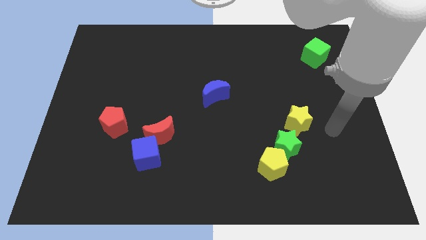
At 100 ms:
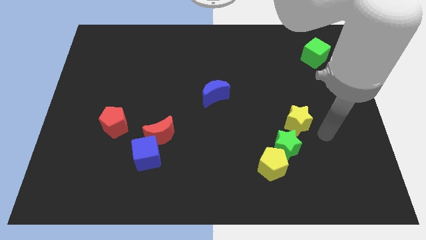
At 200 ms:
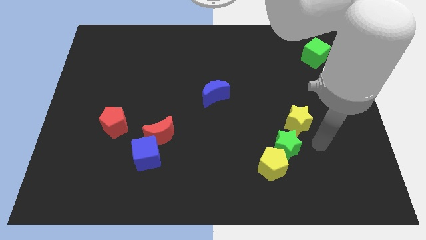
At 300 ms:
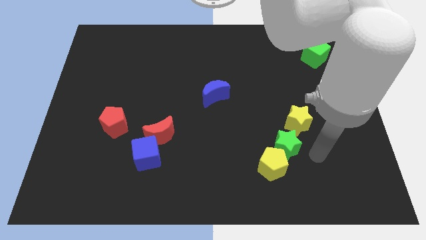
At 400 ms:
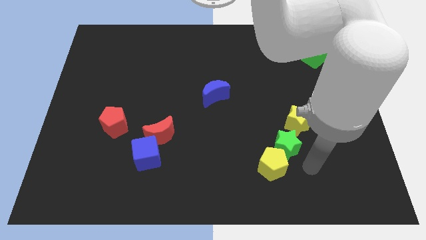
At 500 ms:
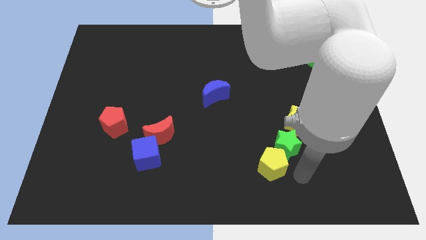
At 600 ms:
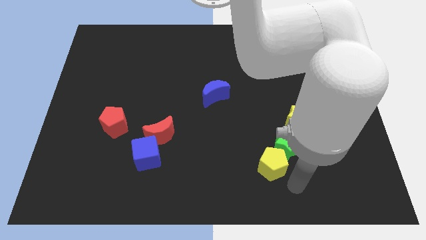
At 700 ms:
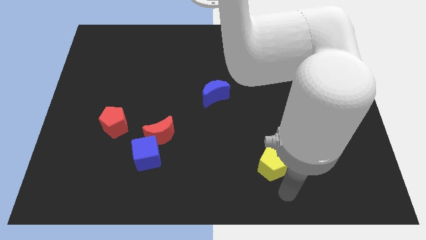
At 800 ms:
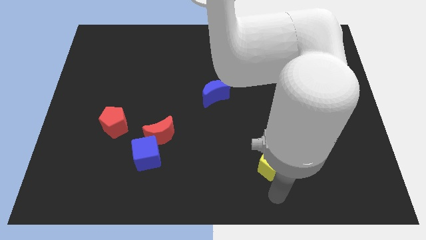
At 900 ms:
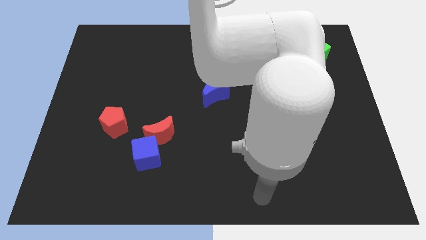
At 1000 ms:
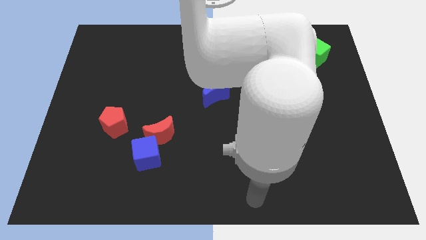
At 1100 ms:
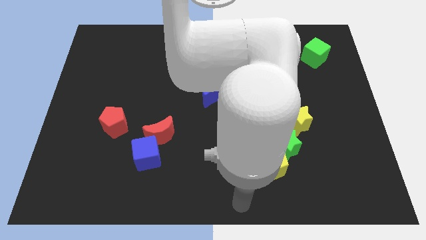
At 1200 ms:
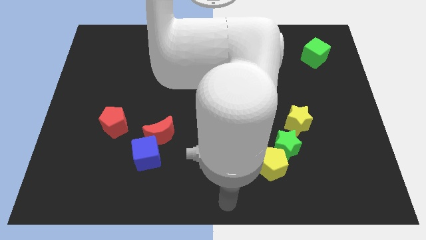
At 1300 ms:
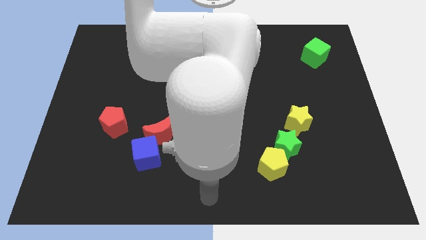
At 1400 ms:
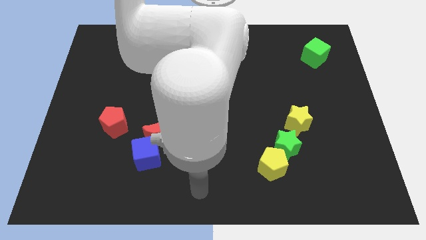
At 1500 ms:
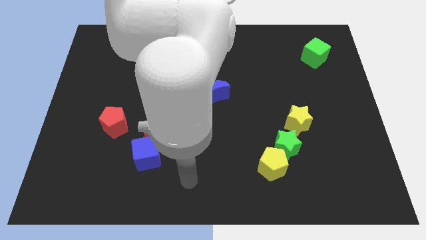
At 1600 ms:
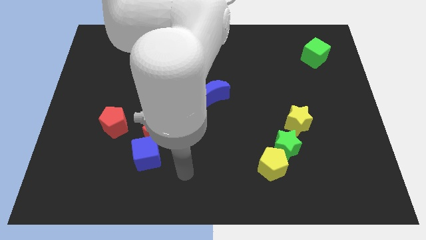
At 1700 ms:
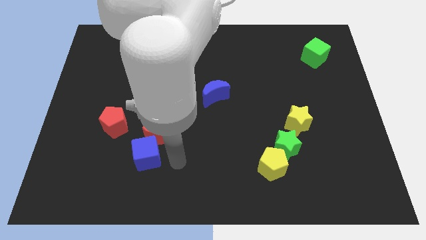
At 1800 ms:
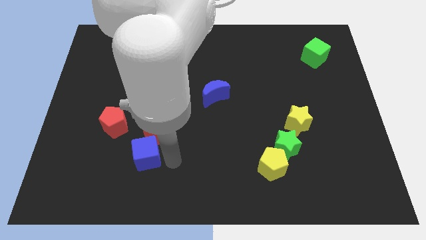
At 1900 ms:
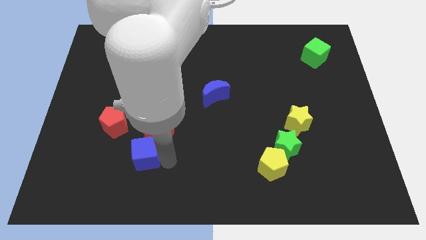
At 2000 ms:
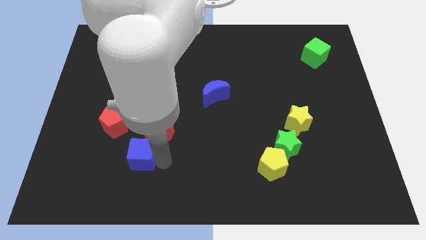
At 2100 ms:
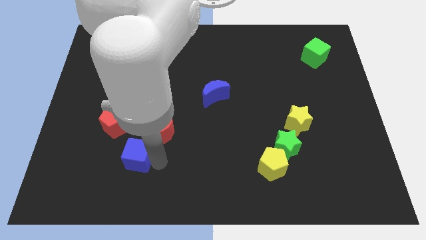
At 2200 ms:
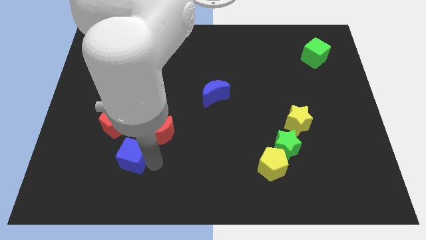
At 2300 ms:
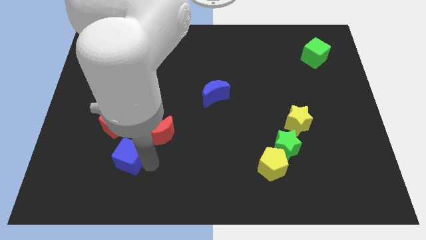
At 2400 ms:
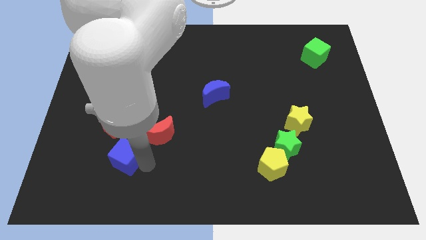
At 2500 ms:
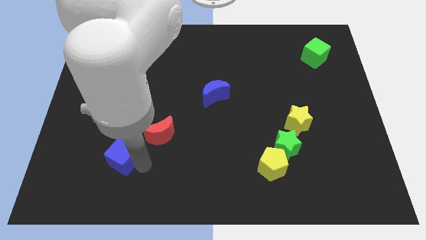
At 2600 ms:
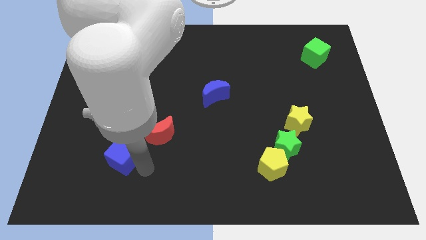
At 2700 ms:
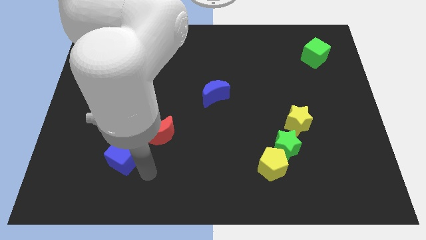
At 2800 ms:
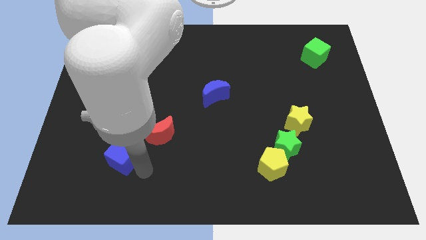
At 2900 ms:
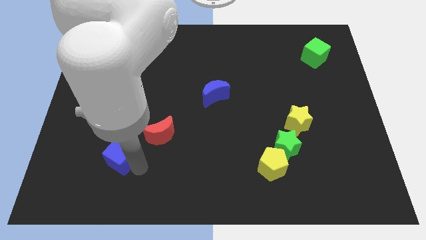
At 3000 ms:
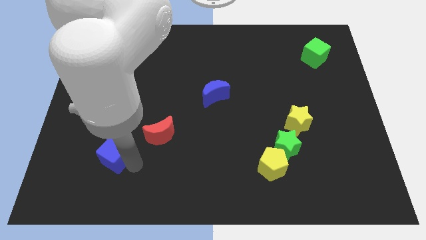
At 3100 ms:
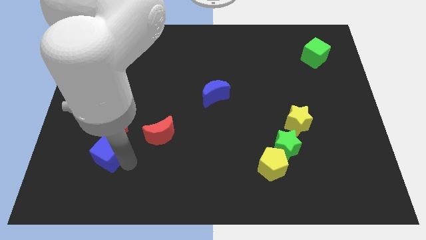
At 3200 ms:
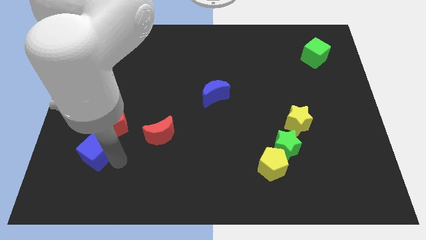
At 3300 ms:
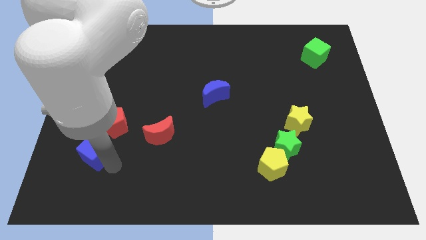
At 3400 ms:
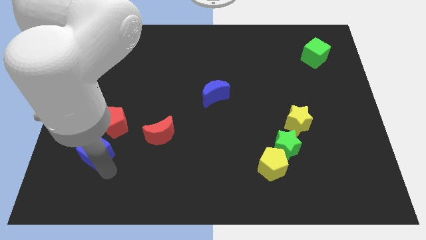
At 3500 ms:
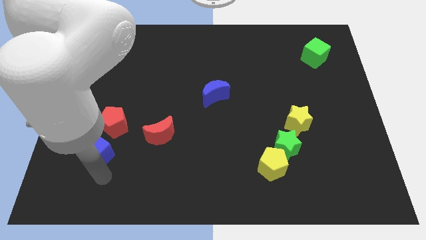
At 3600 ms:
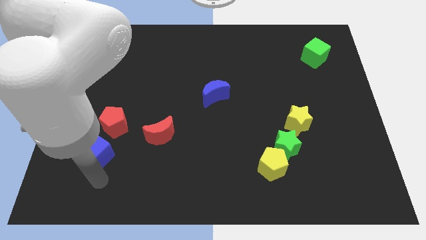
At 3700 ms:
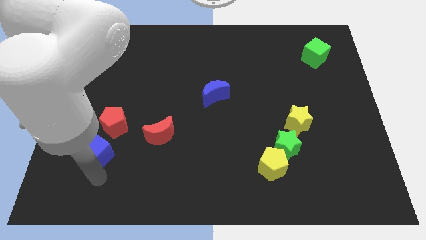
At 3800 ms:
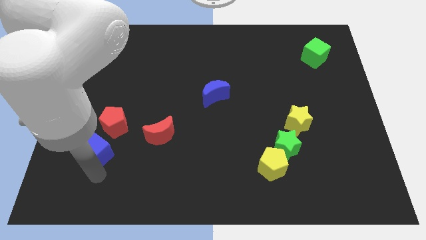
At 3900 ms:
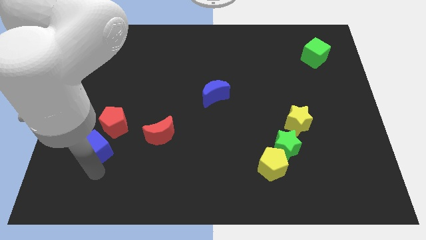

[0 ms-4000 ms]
slightly slide the blue cube diagonally upwards and left

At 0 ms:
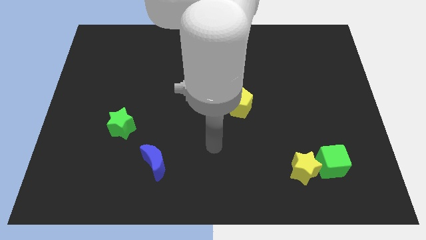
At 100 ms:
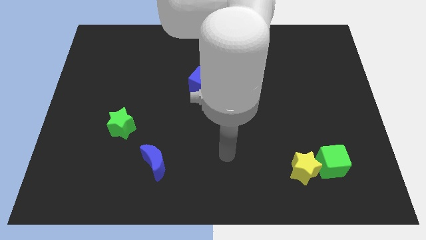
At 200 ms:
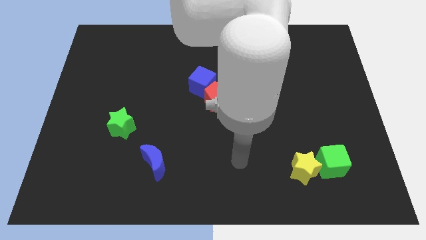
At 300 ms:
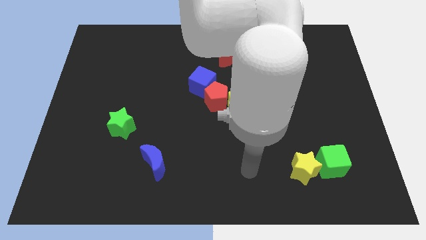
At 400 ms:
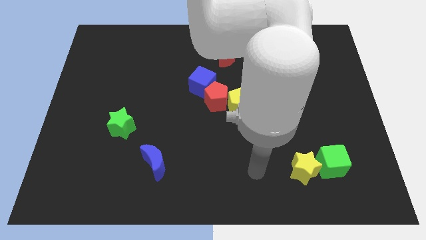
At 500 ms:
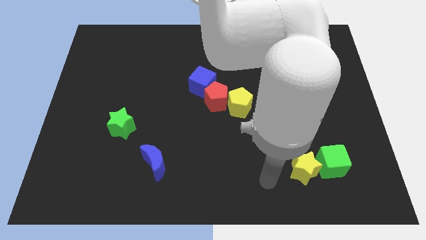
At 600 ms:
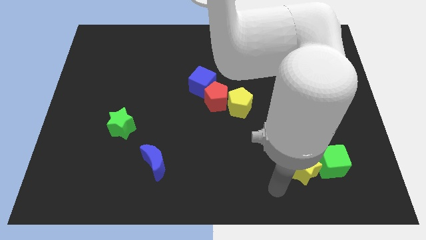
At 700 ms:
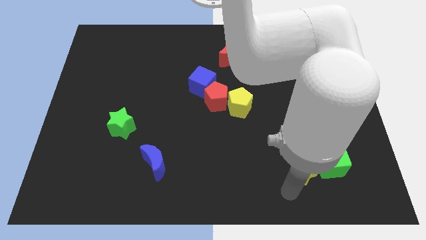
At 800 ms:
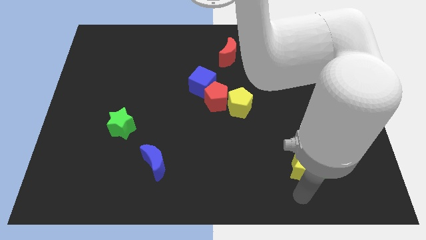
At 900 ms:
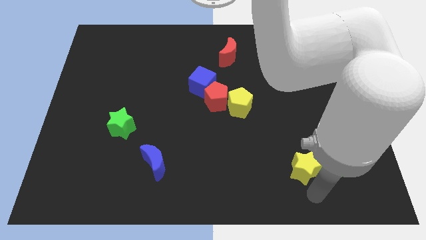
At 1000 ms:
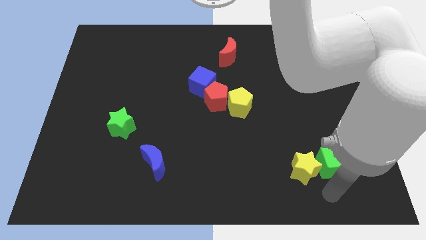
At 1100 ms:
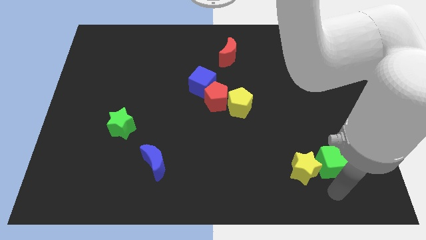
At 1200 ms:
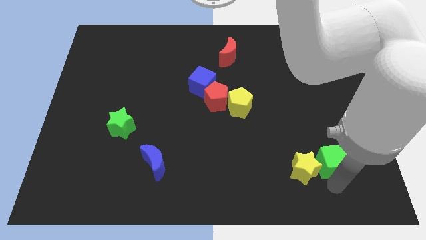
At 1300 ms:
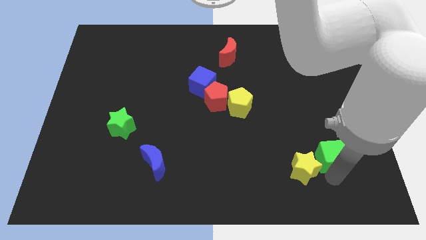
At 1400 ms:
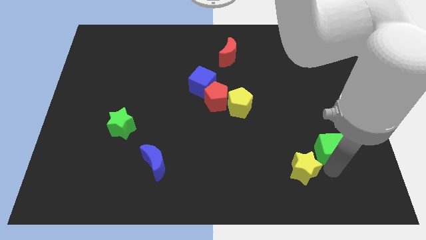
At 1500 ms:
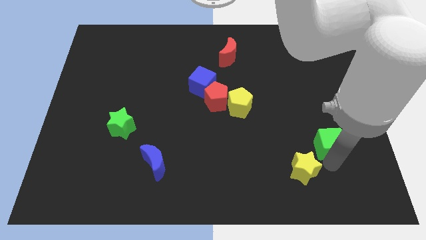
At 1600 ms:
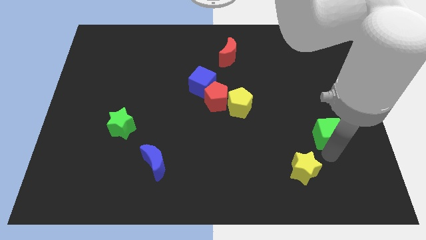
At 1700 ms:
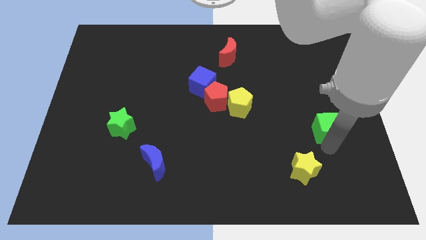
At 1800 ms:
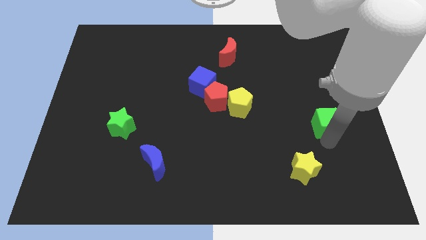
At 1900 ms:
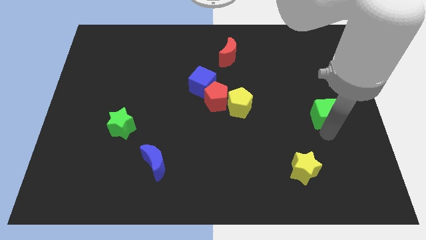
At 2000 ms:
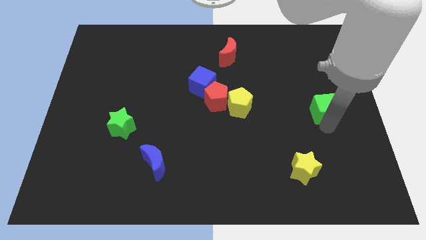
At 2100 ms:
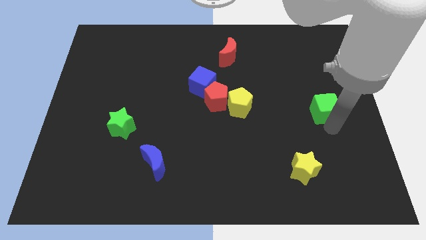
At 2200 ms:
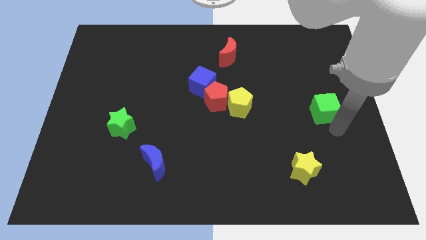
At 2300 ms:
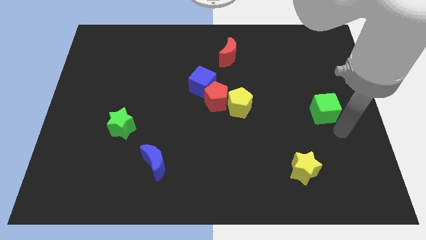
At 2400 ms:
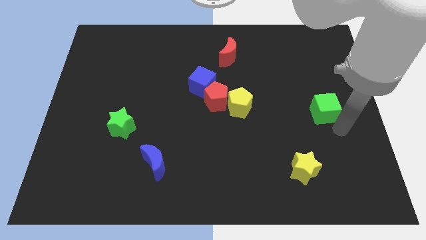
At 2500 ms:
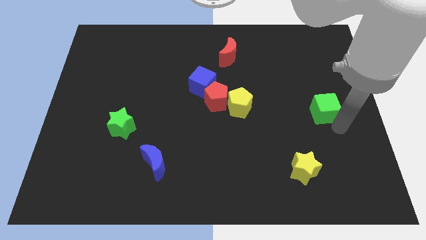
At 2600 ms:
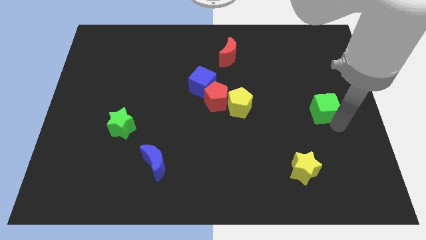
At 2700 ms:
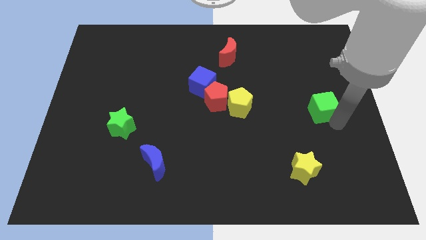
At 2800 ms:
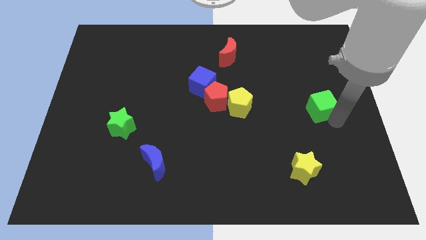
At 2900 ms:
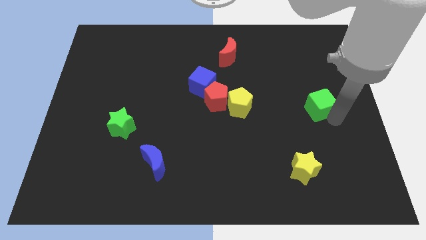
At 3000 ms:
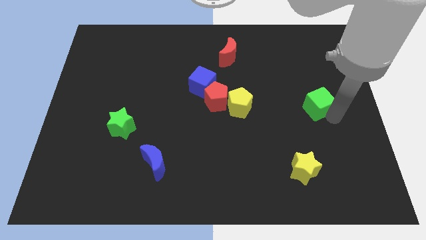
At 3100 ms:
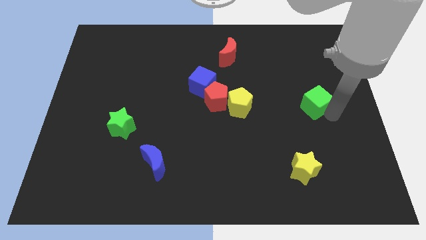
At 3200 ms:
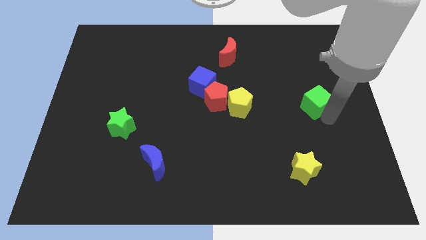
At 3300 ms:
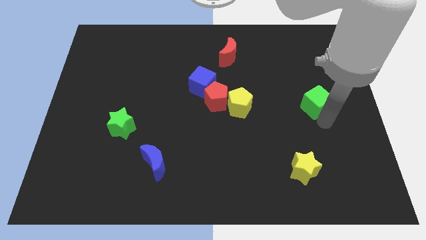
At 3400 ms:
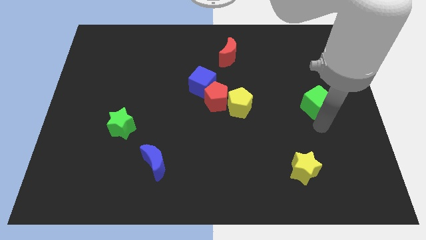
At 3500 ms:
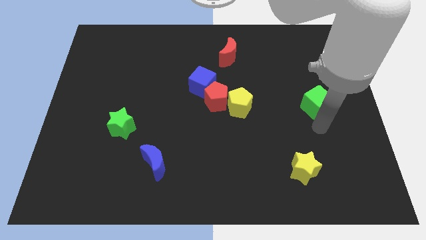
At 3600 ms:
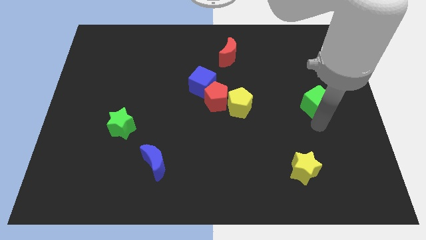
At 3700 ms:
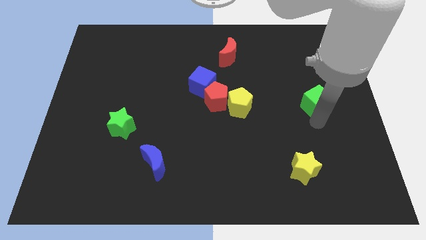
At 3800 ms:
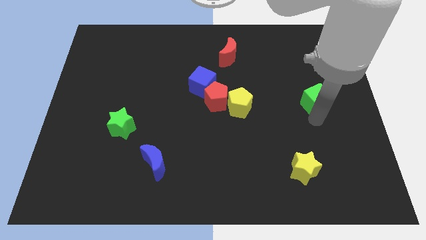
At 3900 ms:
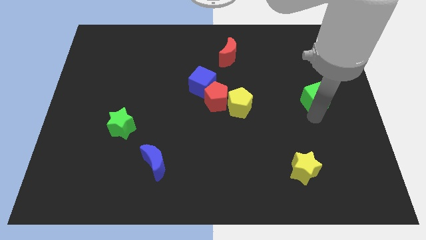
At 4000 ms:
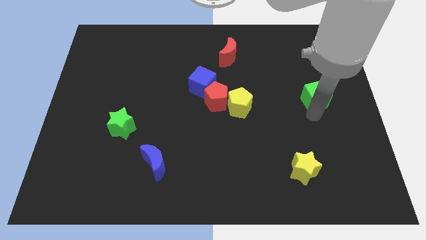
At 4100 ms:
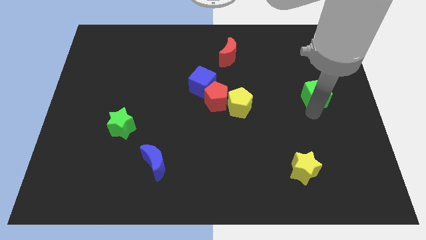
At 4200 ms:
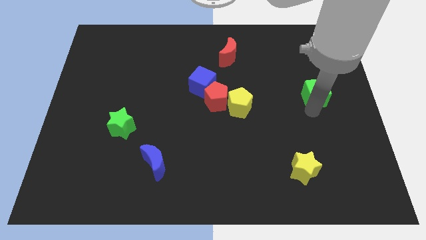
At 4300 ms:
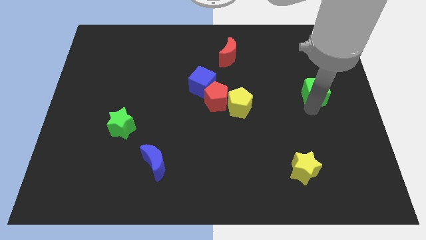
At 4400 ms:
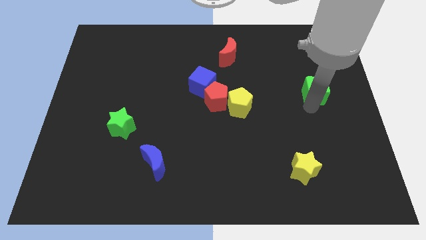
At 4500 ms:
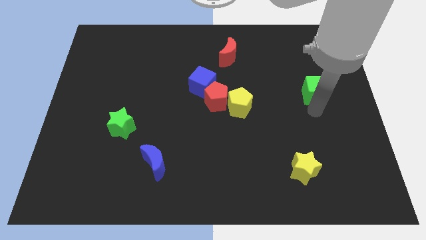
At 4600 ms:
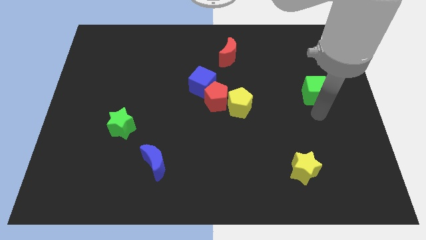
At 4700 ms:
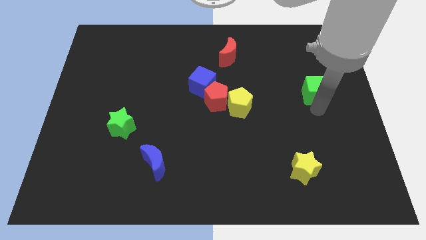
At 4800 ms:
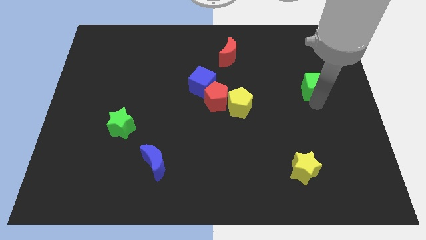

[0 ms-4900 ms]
slide the green cube upwards
